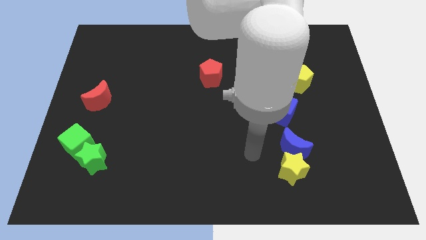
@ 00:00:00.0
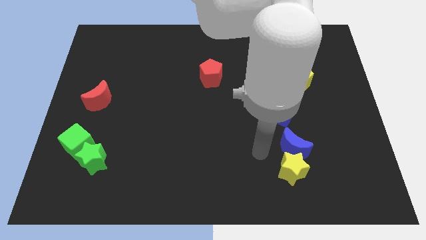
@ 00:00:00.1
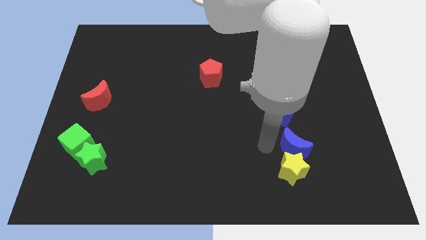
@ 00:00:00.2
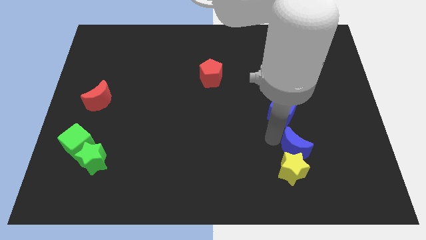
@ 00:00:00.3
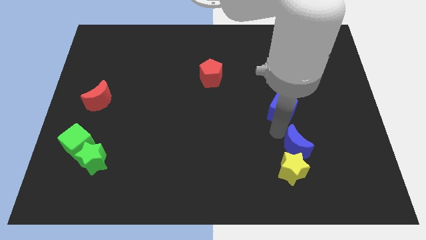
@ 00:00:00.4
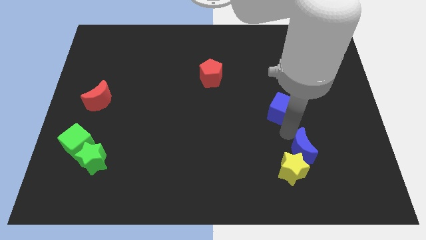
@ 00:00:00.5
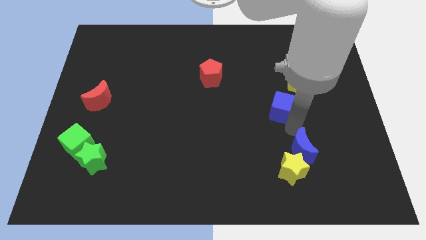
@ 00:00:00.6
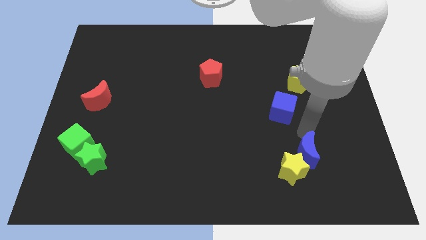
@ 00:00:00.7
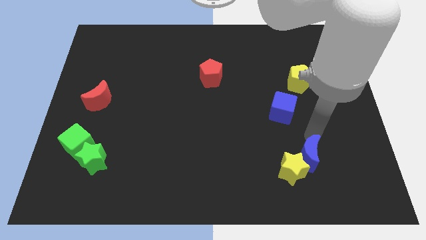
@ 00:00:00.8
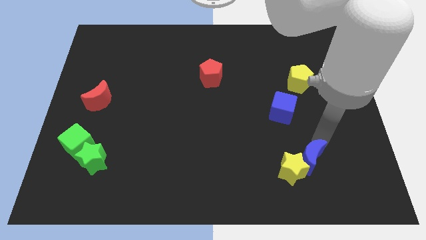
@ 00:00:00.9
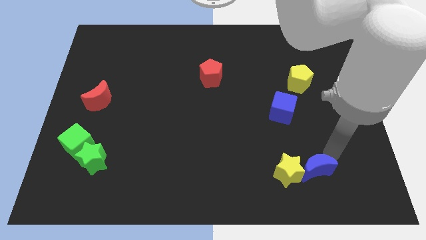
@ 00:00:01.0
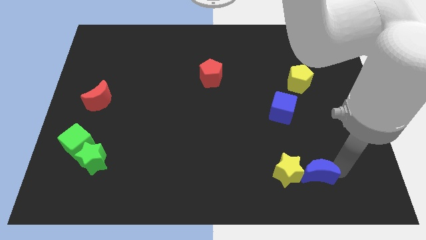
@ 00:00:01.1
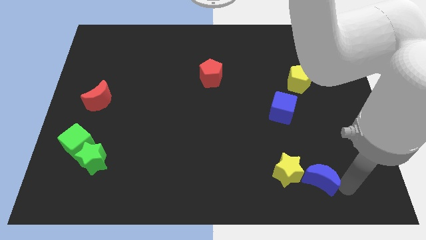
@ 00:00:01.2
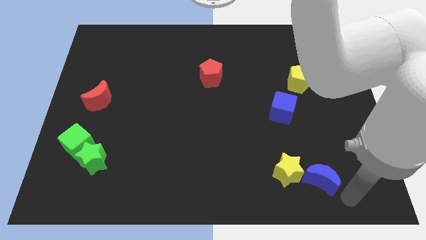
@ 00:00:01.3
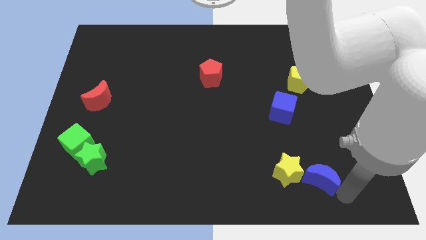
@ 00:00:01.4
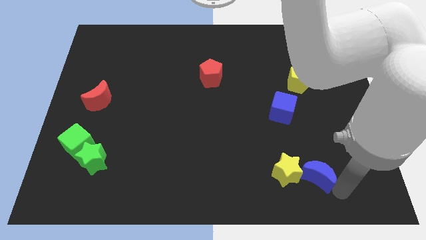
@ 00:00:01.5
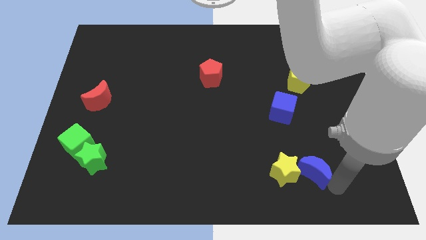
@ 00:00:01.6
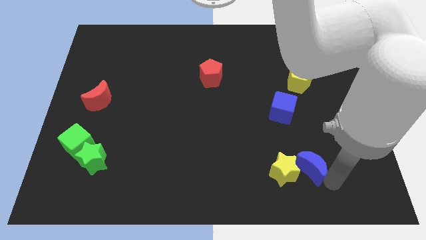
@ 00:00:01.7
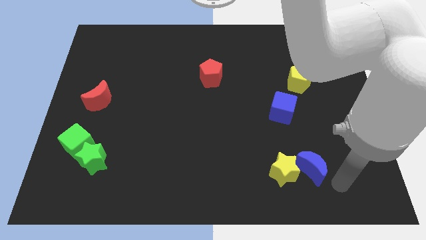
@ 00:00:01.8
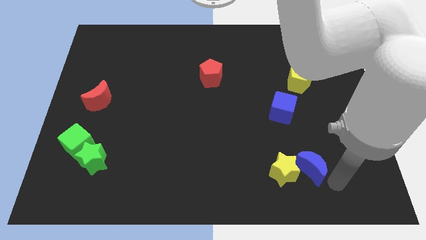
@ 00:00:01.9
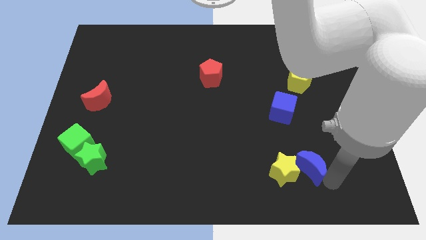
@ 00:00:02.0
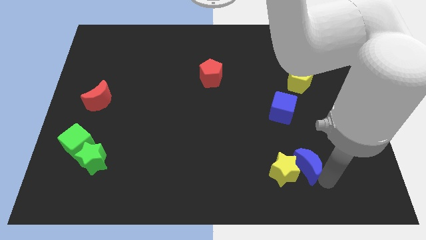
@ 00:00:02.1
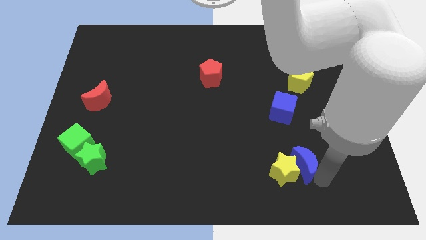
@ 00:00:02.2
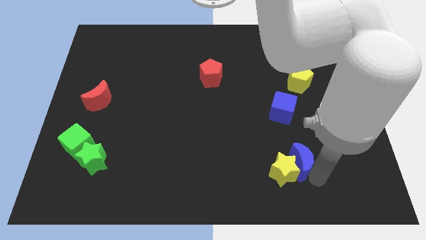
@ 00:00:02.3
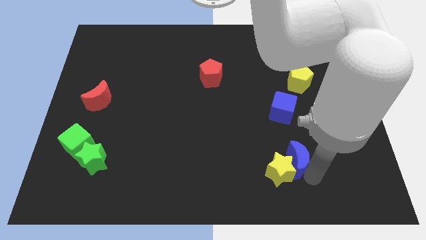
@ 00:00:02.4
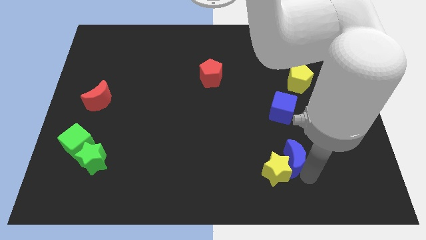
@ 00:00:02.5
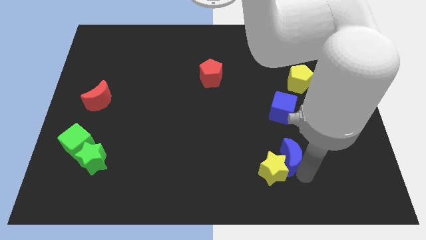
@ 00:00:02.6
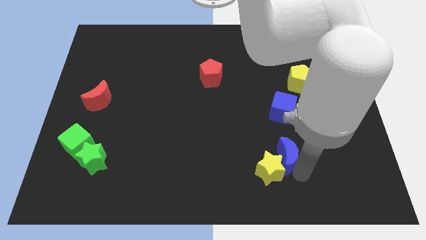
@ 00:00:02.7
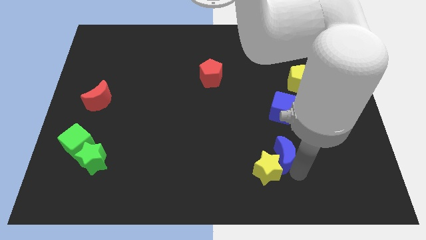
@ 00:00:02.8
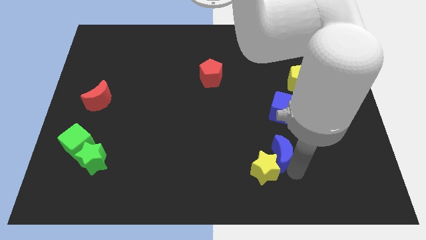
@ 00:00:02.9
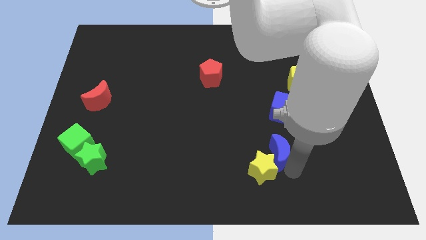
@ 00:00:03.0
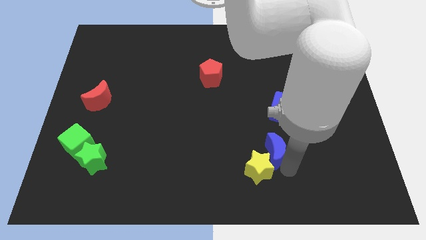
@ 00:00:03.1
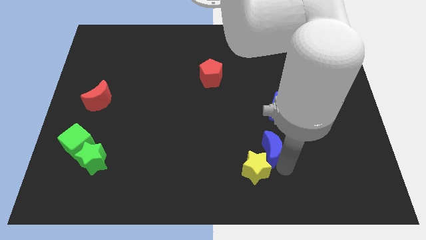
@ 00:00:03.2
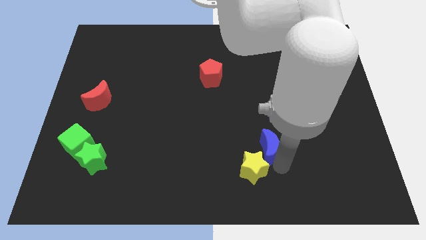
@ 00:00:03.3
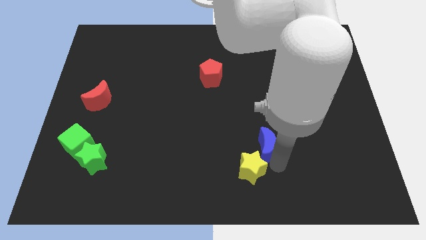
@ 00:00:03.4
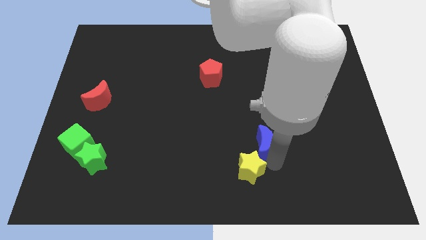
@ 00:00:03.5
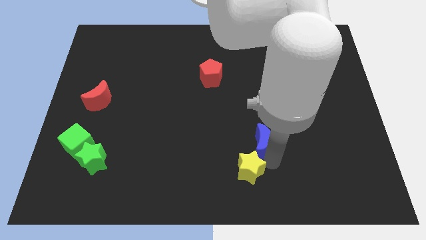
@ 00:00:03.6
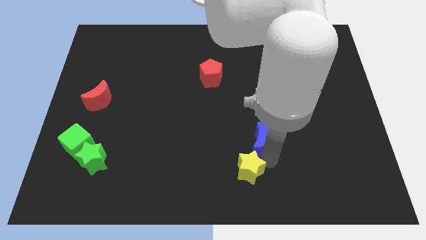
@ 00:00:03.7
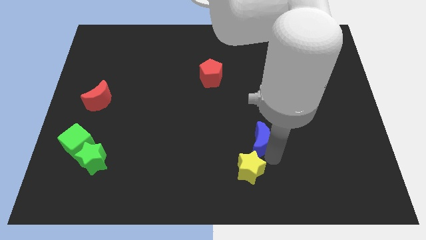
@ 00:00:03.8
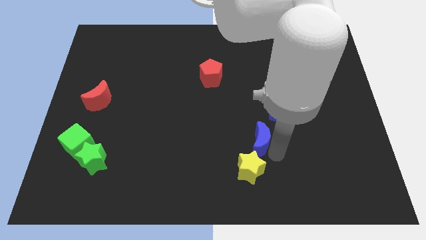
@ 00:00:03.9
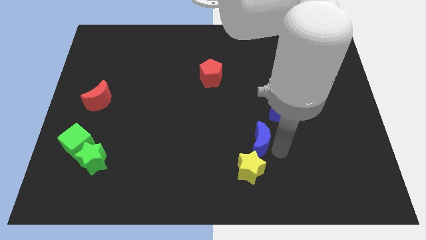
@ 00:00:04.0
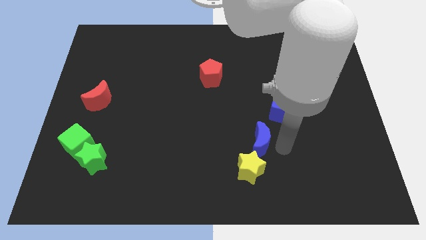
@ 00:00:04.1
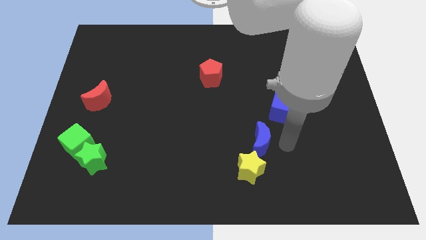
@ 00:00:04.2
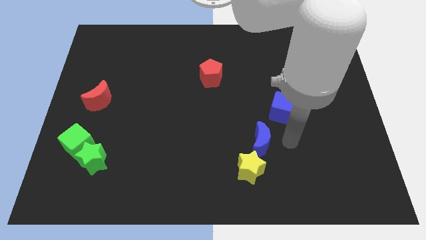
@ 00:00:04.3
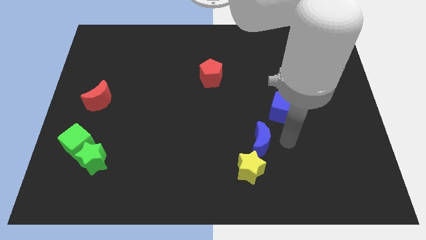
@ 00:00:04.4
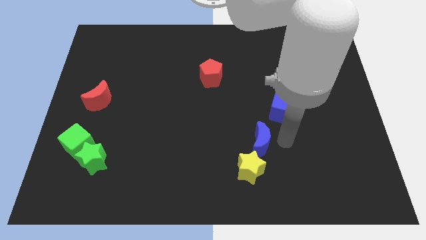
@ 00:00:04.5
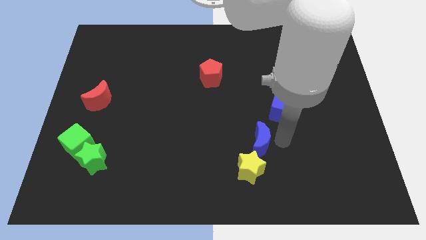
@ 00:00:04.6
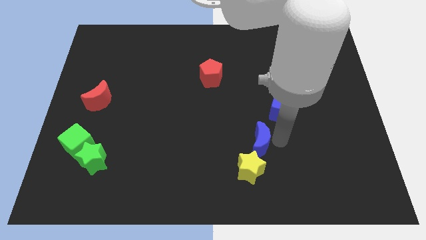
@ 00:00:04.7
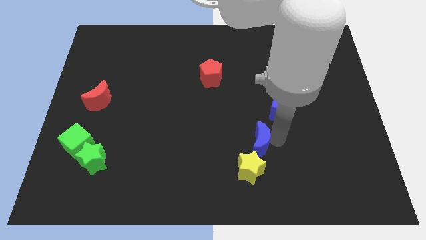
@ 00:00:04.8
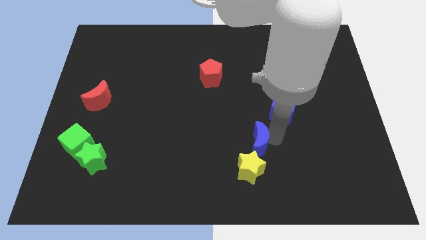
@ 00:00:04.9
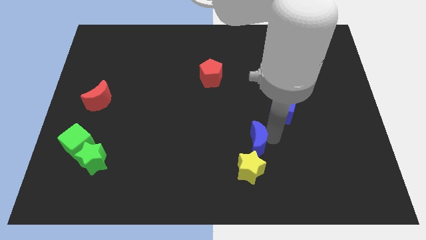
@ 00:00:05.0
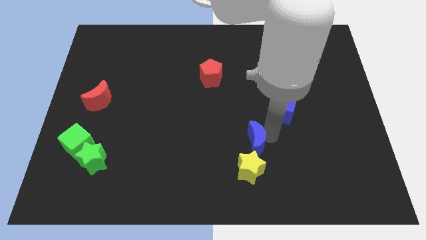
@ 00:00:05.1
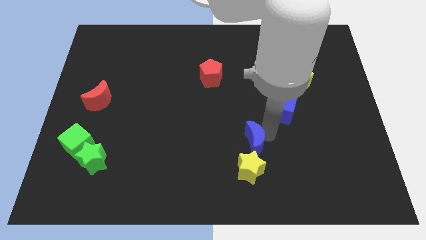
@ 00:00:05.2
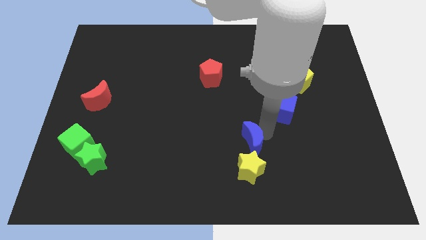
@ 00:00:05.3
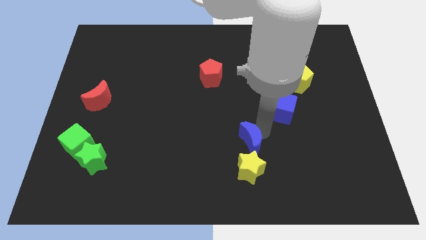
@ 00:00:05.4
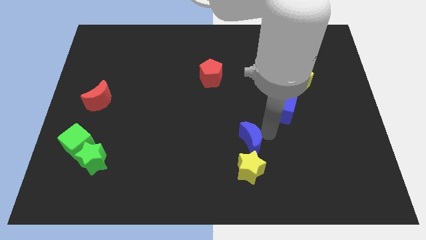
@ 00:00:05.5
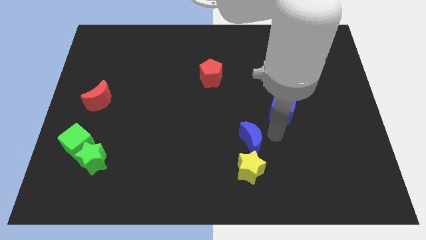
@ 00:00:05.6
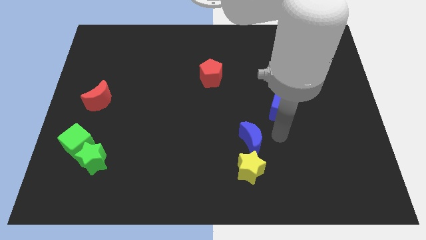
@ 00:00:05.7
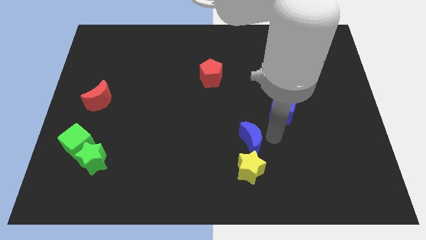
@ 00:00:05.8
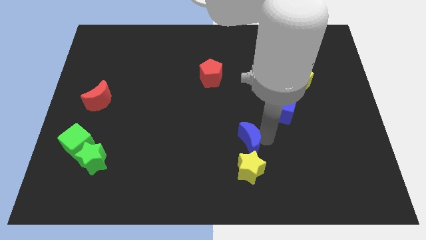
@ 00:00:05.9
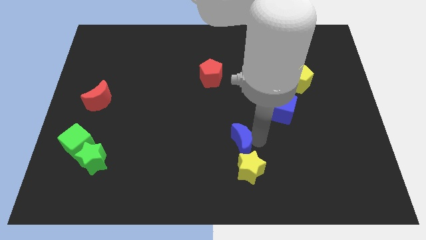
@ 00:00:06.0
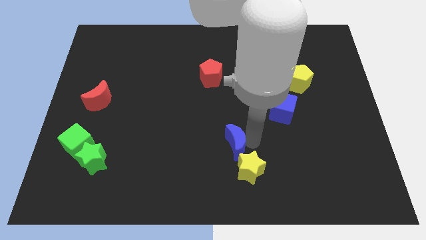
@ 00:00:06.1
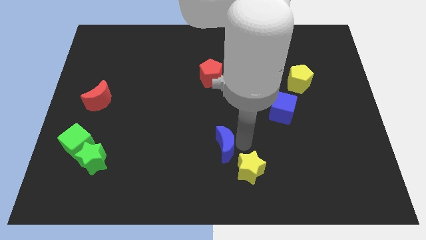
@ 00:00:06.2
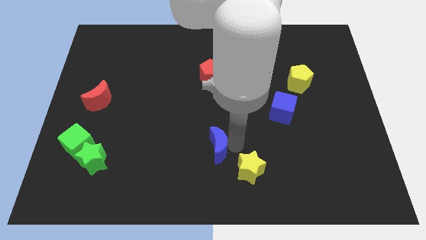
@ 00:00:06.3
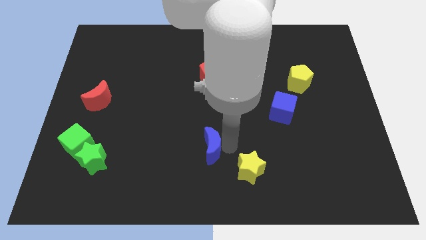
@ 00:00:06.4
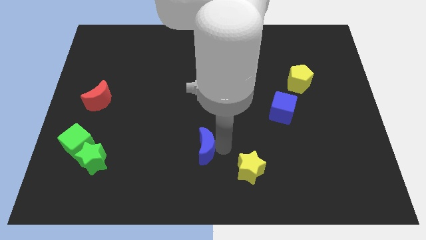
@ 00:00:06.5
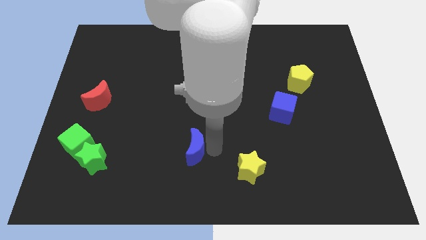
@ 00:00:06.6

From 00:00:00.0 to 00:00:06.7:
push the blue moon to the left

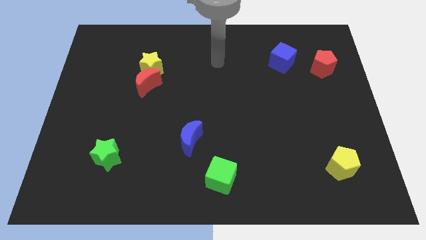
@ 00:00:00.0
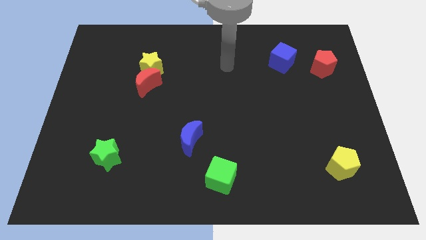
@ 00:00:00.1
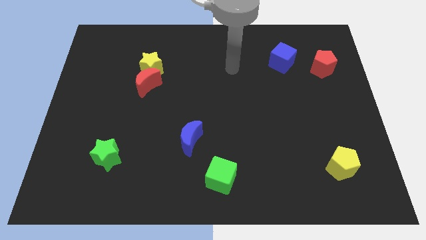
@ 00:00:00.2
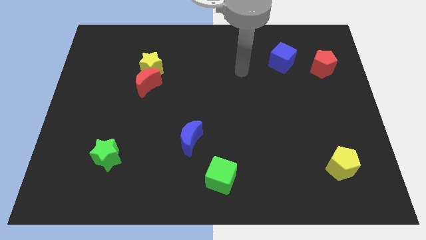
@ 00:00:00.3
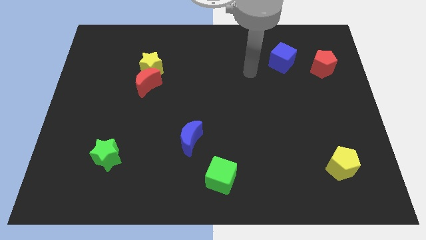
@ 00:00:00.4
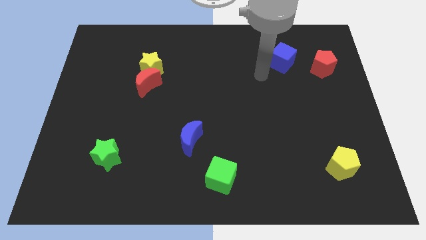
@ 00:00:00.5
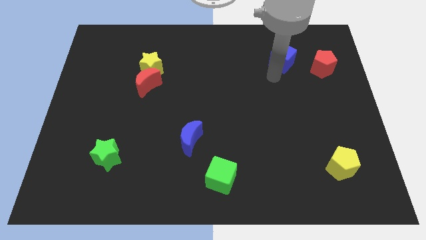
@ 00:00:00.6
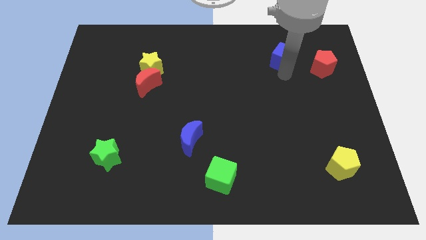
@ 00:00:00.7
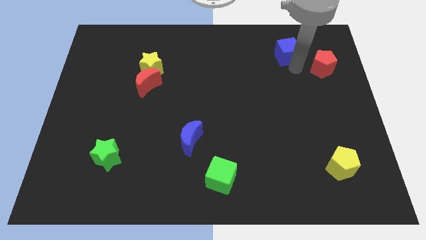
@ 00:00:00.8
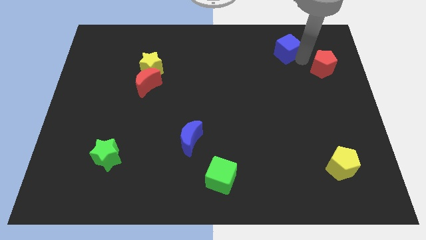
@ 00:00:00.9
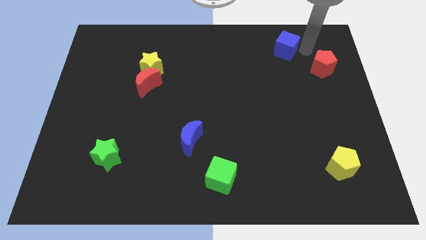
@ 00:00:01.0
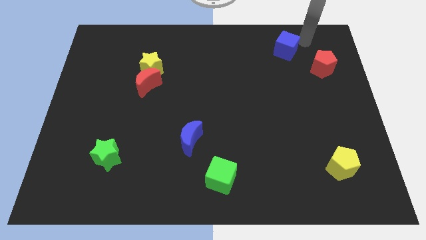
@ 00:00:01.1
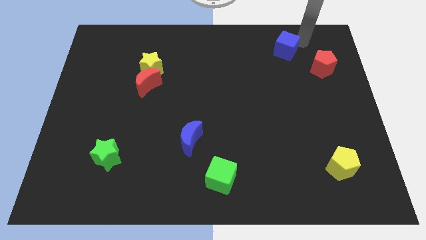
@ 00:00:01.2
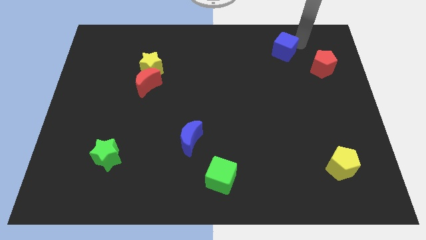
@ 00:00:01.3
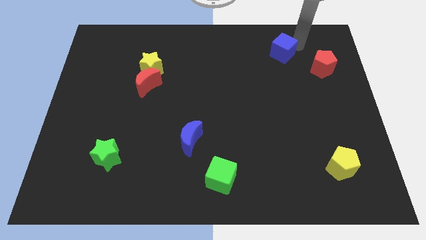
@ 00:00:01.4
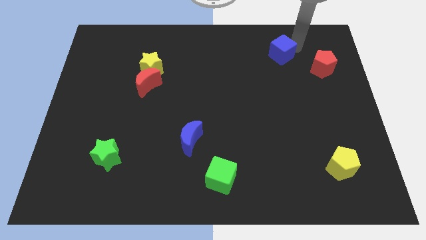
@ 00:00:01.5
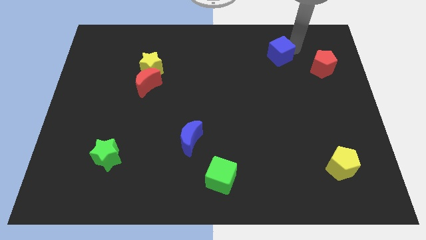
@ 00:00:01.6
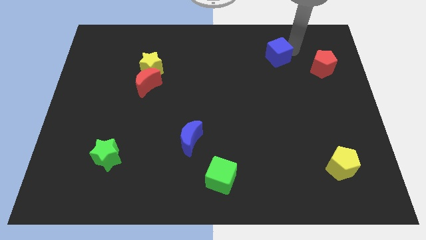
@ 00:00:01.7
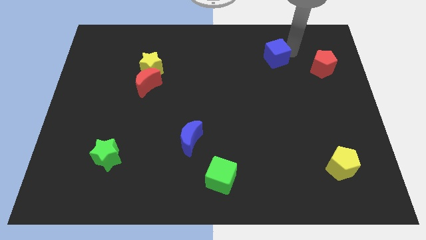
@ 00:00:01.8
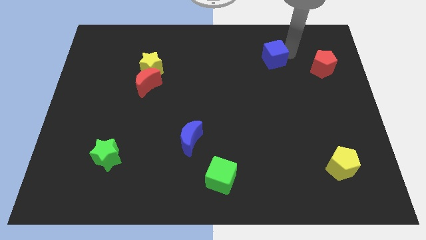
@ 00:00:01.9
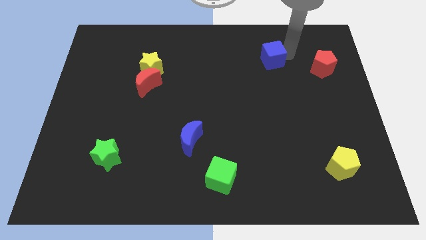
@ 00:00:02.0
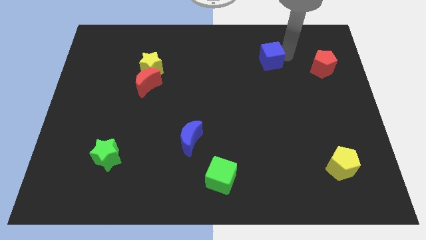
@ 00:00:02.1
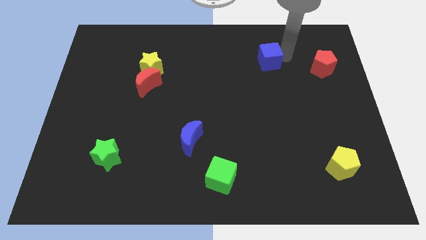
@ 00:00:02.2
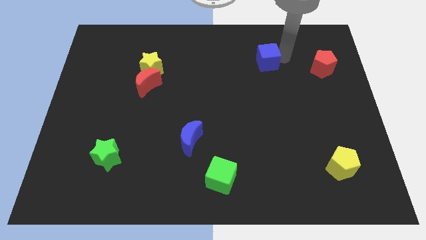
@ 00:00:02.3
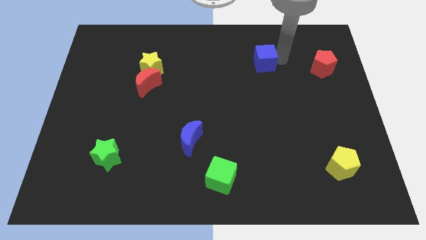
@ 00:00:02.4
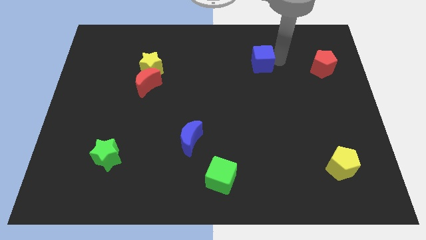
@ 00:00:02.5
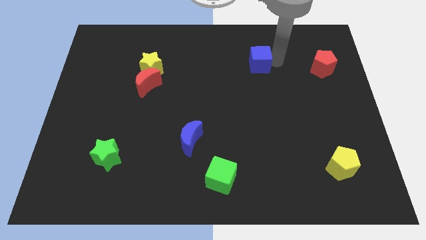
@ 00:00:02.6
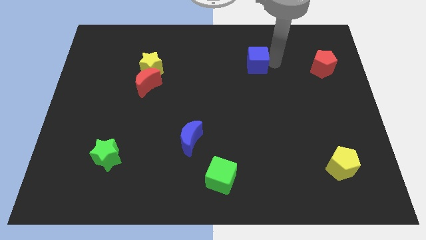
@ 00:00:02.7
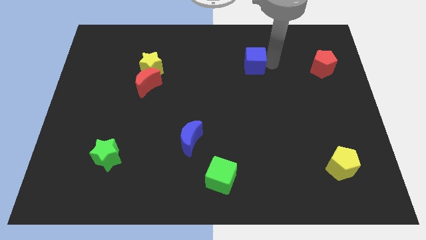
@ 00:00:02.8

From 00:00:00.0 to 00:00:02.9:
slightly move the blue cube left
